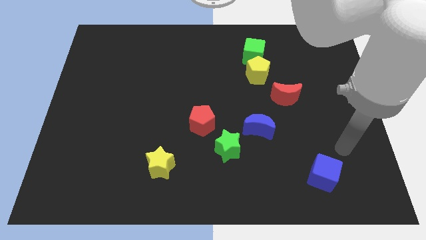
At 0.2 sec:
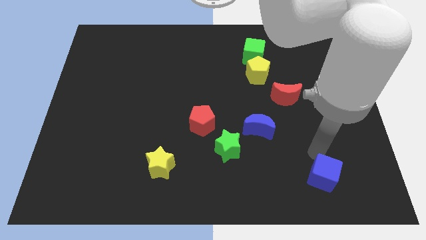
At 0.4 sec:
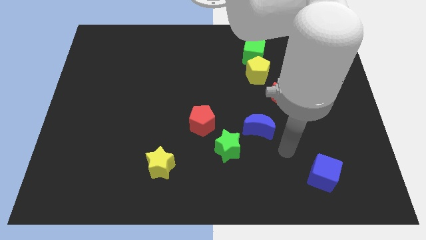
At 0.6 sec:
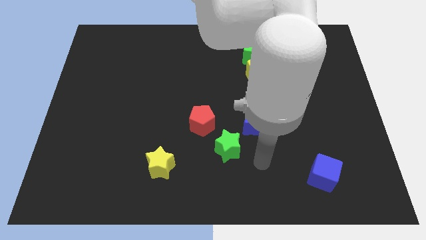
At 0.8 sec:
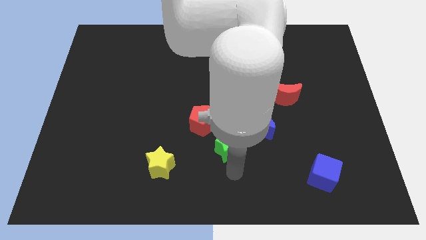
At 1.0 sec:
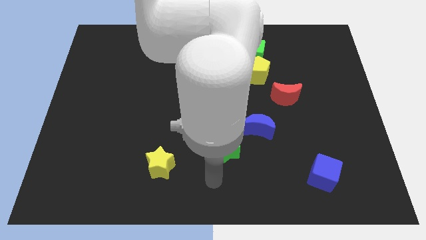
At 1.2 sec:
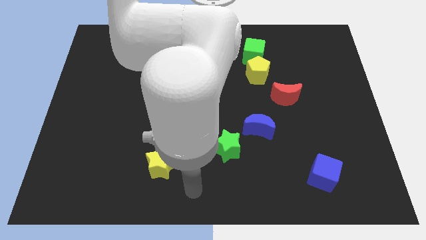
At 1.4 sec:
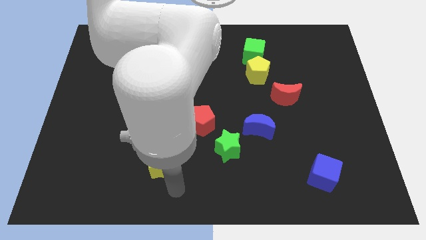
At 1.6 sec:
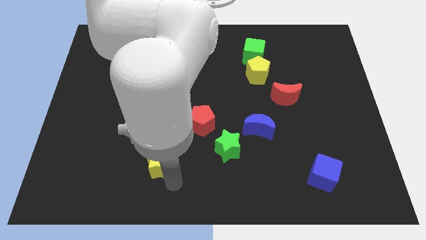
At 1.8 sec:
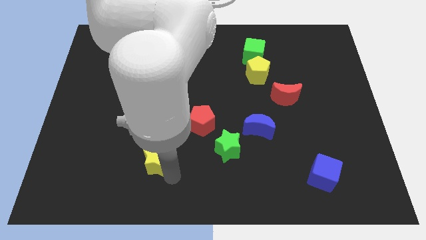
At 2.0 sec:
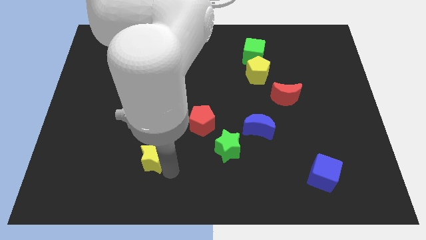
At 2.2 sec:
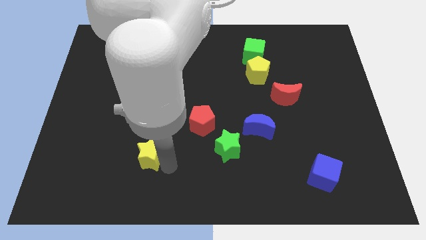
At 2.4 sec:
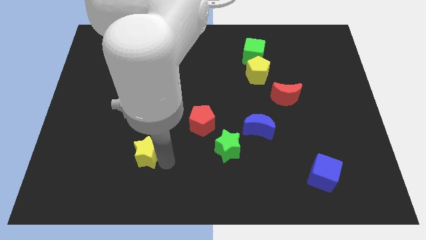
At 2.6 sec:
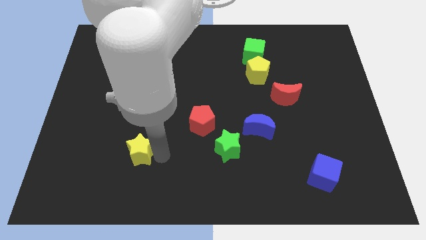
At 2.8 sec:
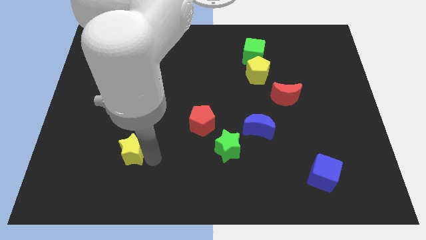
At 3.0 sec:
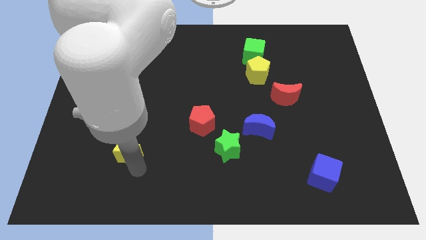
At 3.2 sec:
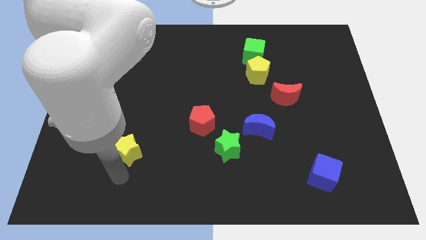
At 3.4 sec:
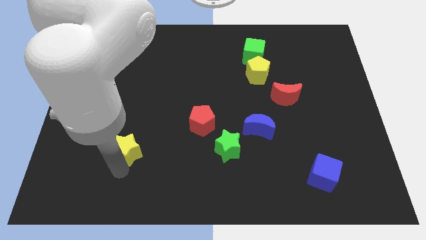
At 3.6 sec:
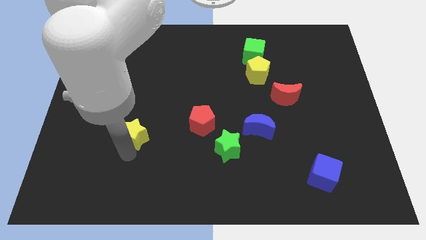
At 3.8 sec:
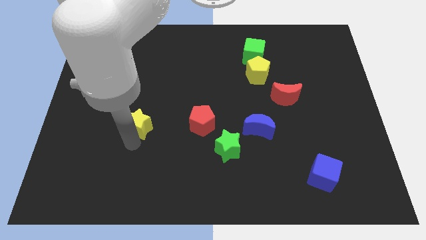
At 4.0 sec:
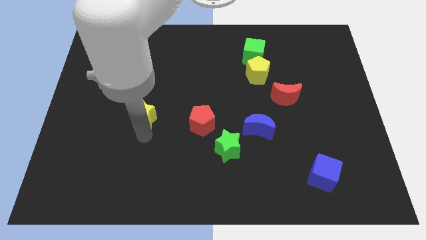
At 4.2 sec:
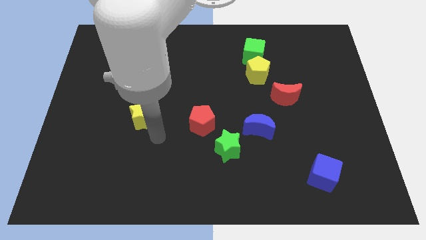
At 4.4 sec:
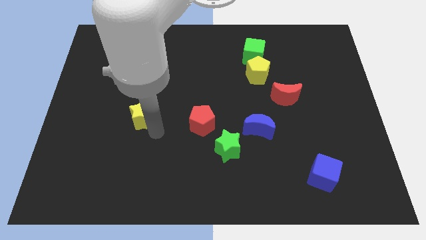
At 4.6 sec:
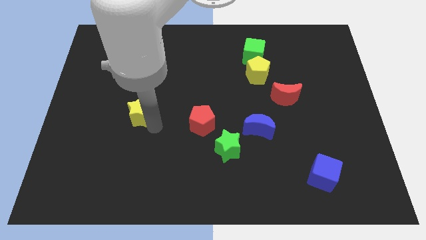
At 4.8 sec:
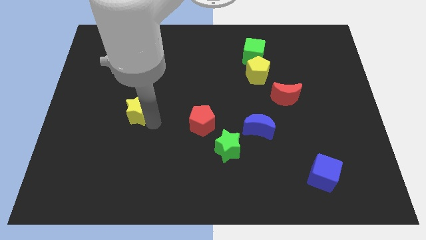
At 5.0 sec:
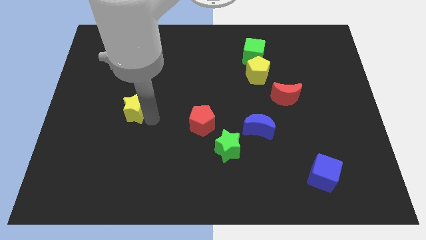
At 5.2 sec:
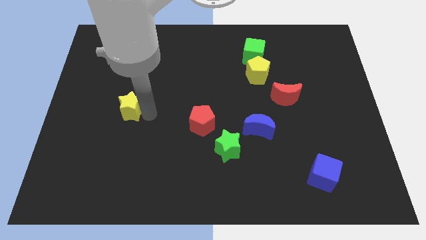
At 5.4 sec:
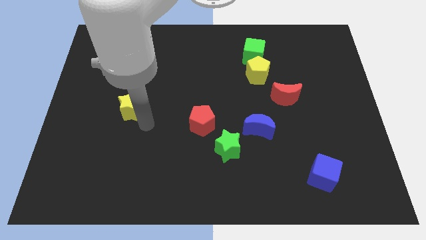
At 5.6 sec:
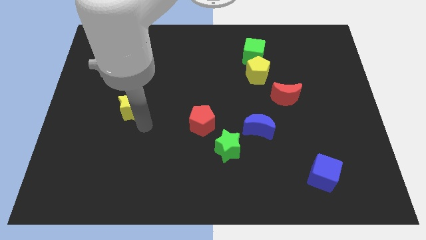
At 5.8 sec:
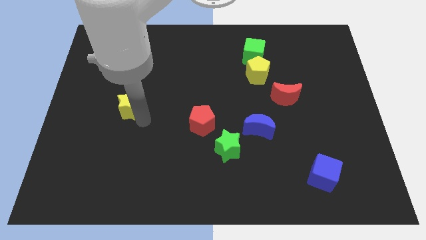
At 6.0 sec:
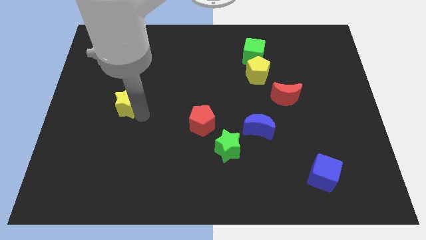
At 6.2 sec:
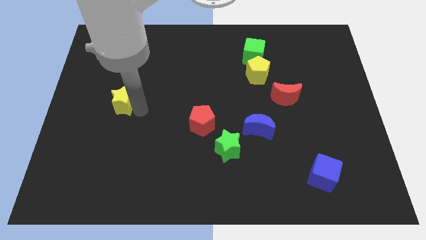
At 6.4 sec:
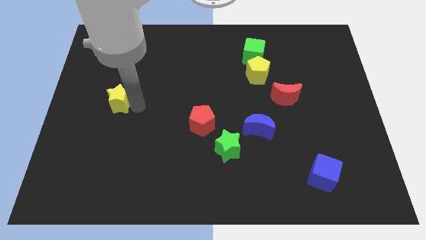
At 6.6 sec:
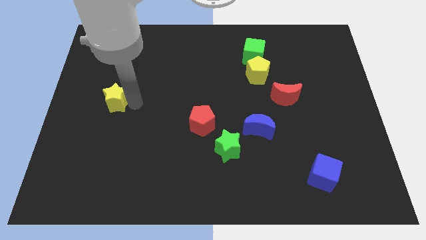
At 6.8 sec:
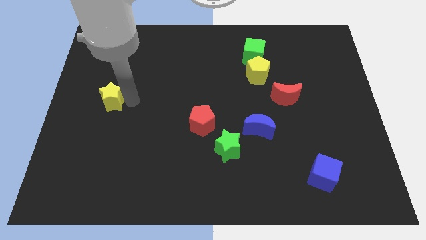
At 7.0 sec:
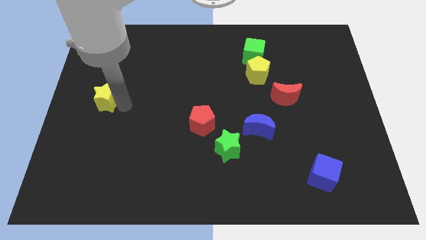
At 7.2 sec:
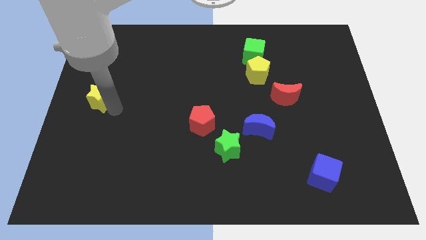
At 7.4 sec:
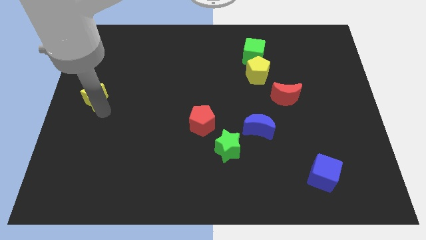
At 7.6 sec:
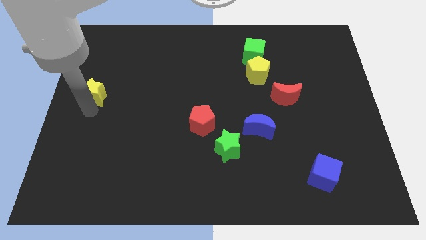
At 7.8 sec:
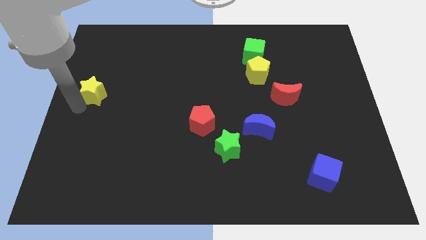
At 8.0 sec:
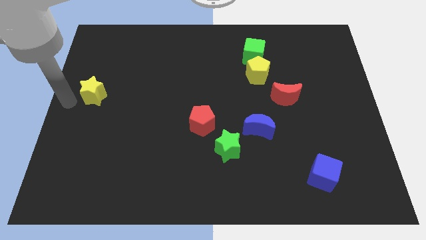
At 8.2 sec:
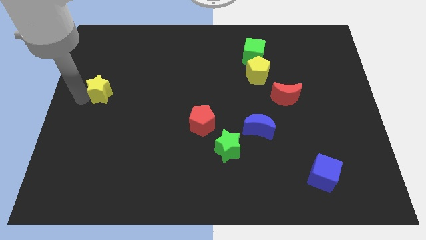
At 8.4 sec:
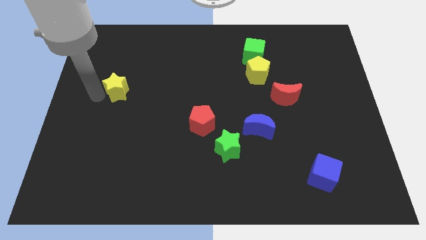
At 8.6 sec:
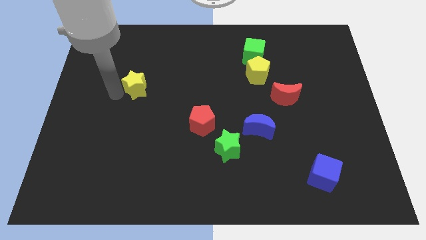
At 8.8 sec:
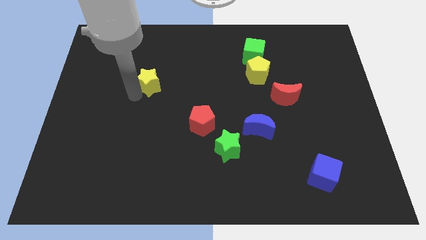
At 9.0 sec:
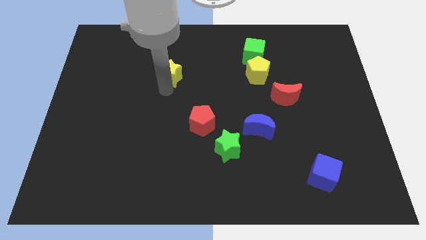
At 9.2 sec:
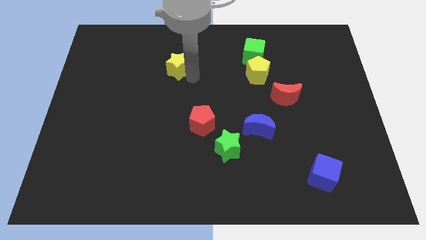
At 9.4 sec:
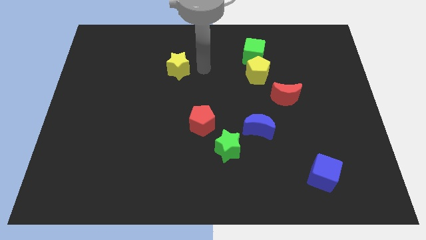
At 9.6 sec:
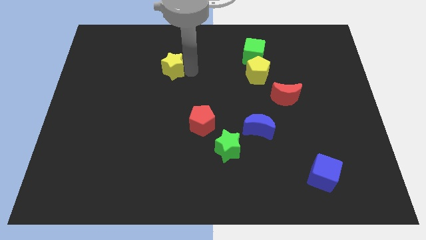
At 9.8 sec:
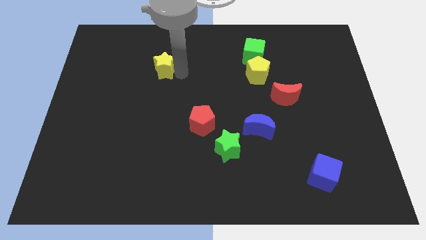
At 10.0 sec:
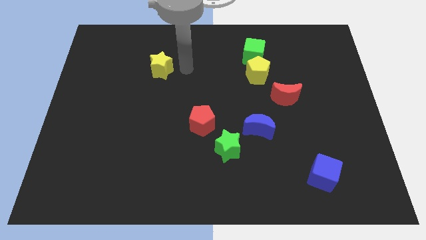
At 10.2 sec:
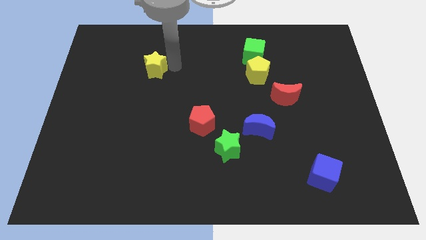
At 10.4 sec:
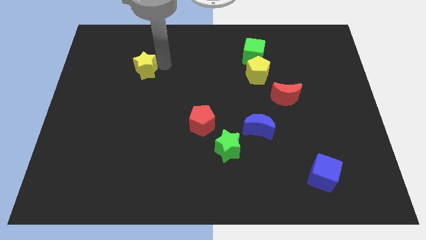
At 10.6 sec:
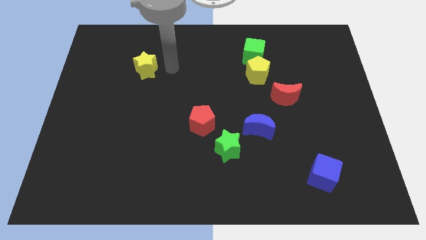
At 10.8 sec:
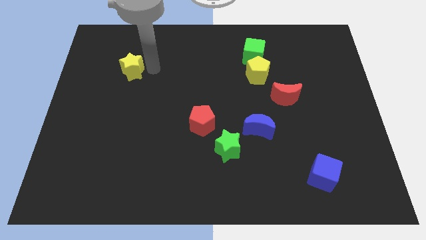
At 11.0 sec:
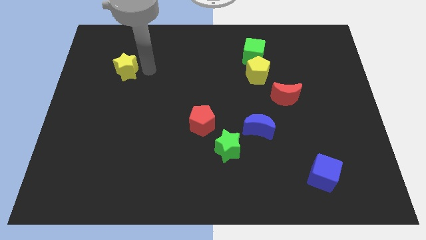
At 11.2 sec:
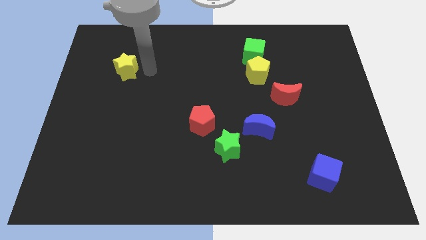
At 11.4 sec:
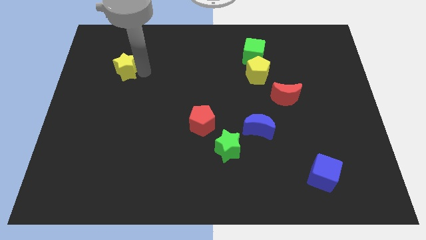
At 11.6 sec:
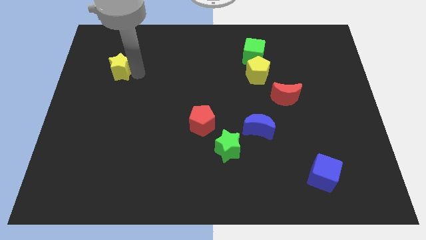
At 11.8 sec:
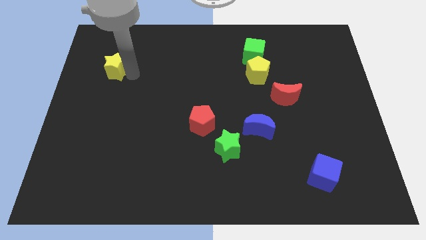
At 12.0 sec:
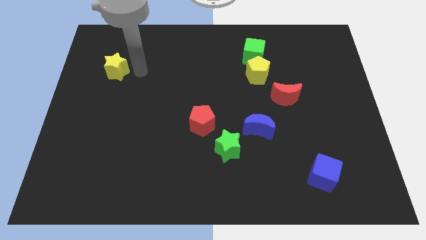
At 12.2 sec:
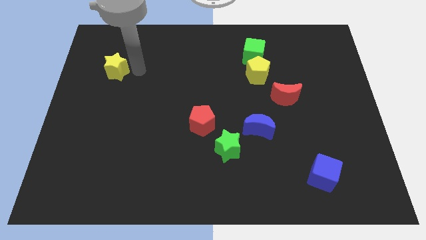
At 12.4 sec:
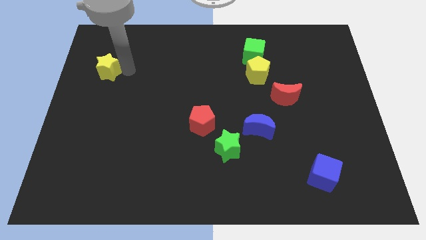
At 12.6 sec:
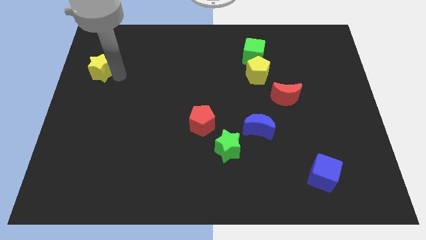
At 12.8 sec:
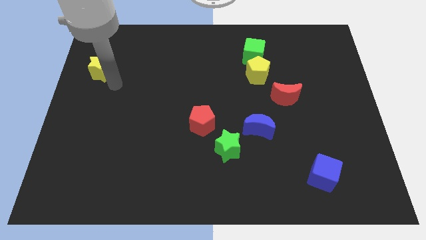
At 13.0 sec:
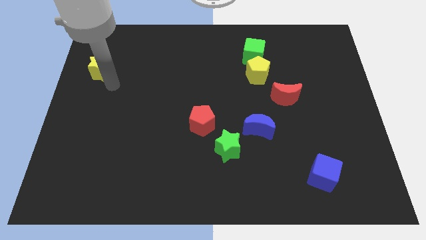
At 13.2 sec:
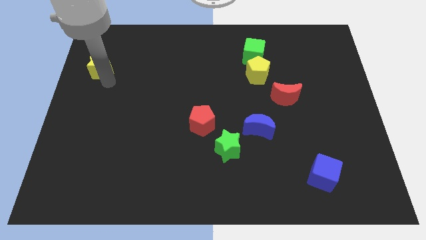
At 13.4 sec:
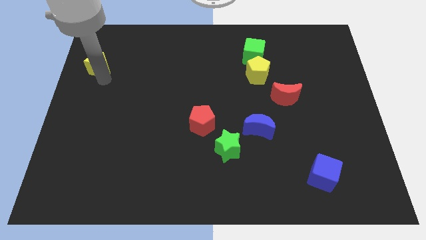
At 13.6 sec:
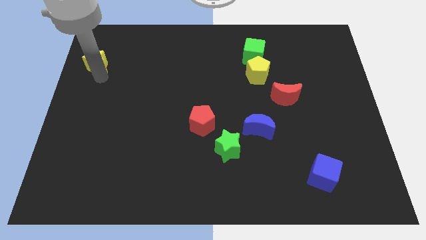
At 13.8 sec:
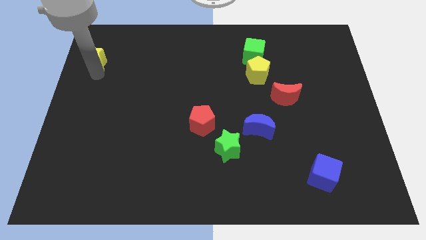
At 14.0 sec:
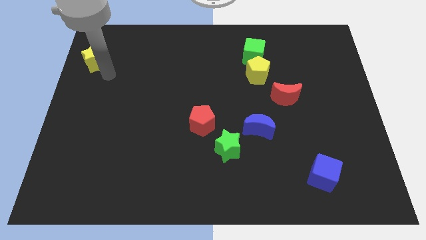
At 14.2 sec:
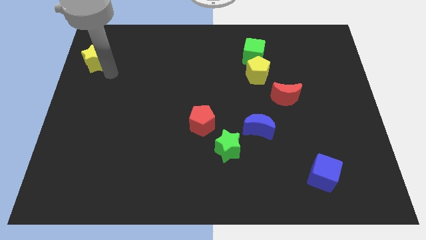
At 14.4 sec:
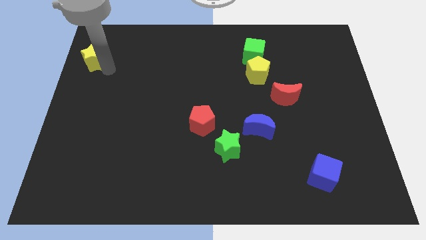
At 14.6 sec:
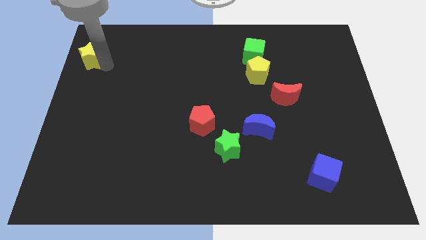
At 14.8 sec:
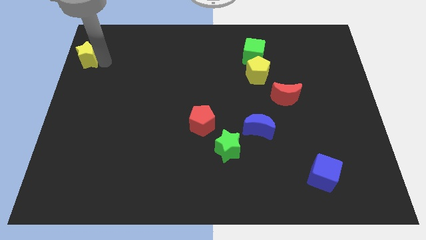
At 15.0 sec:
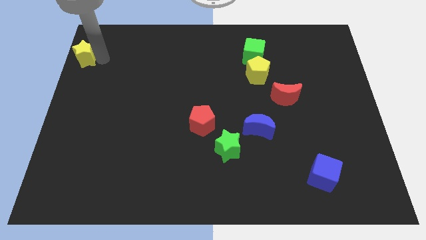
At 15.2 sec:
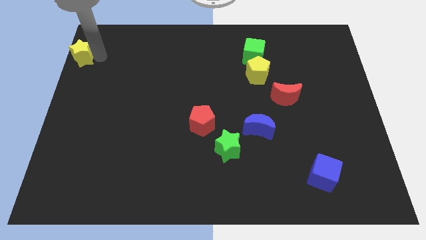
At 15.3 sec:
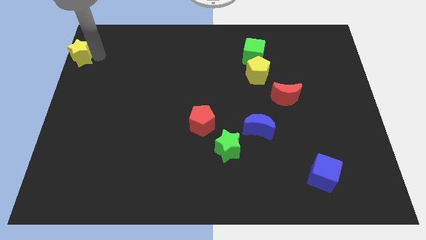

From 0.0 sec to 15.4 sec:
put the yellow star to the upper left corner
